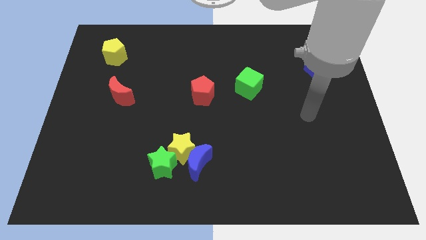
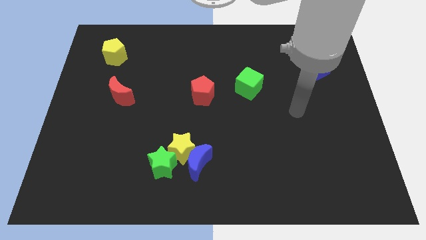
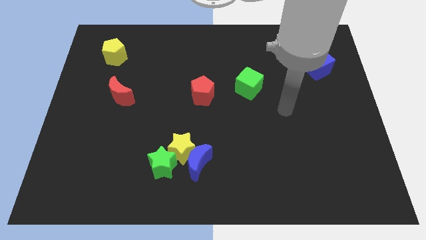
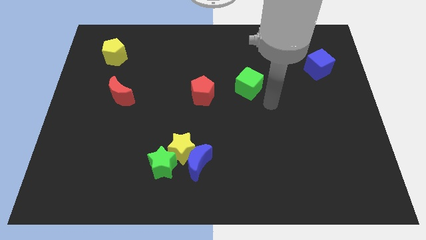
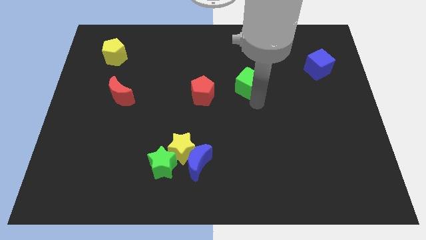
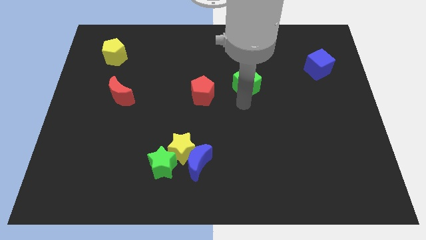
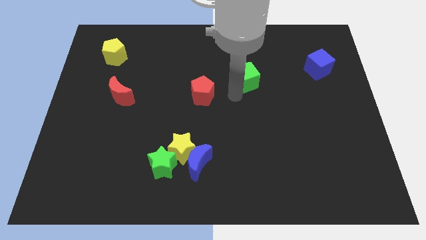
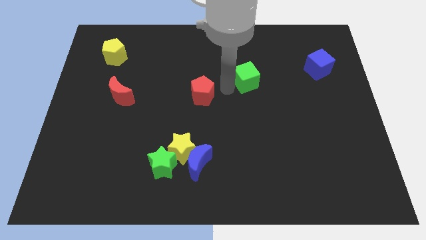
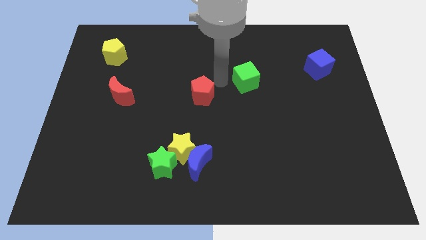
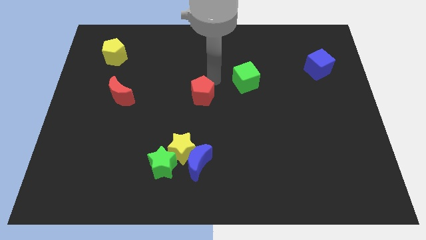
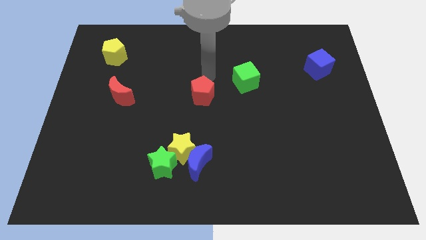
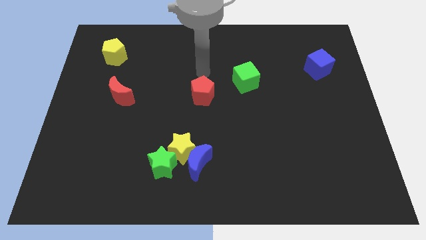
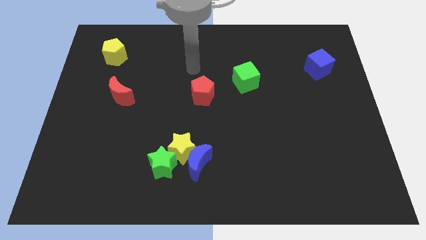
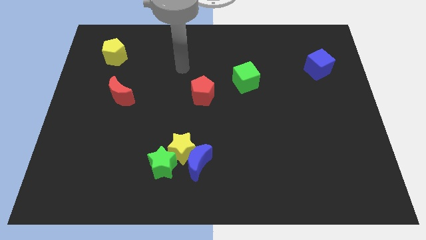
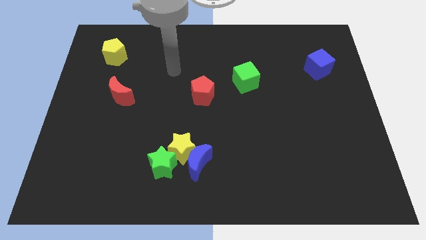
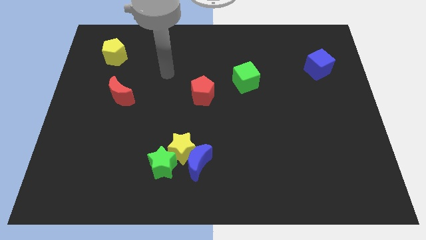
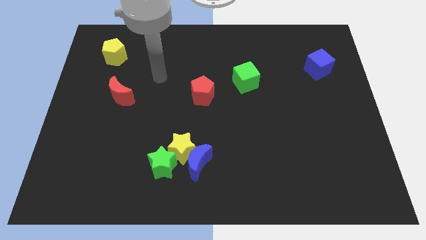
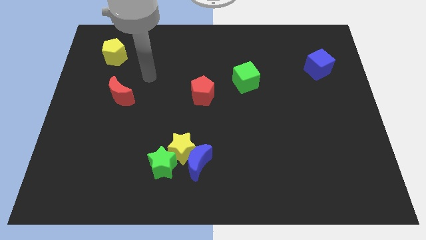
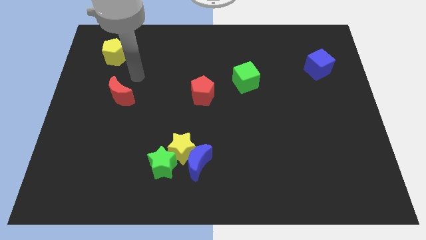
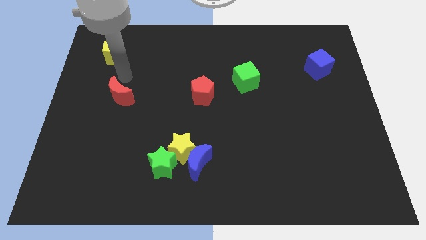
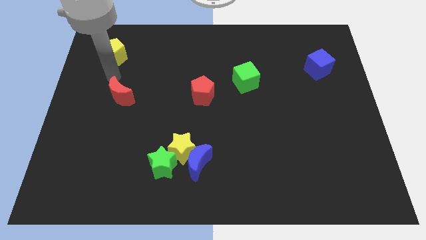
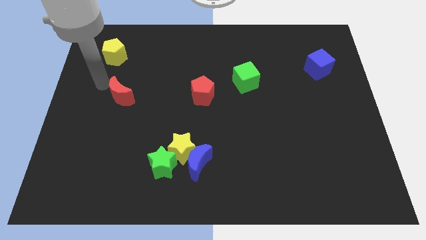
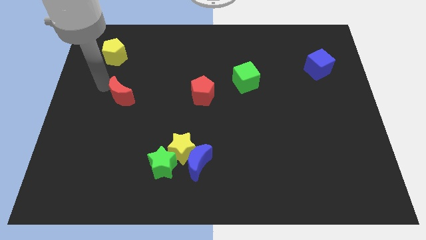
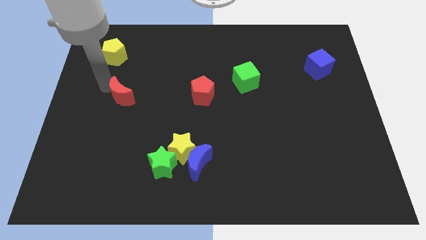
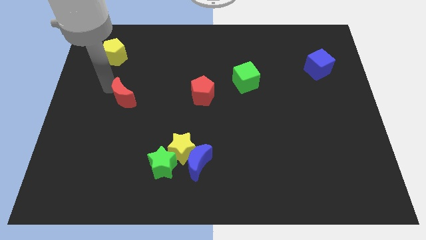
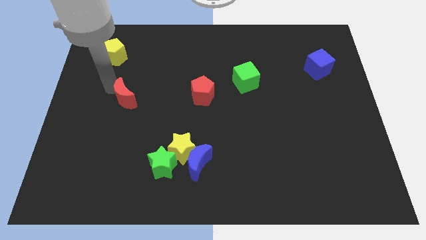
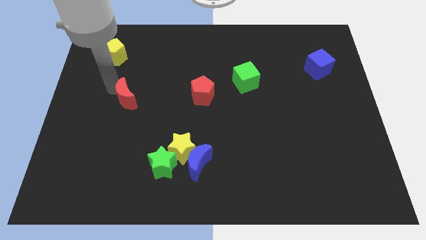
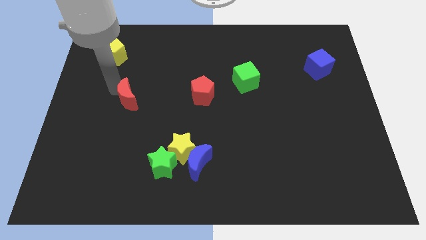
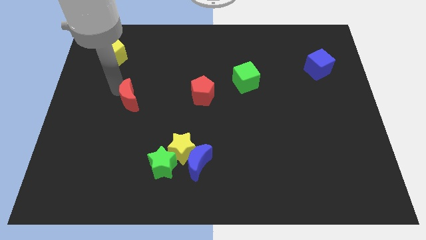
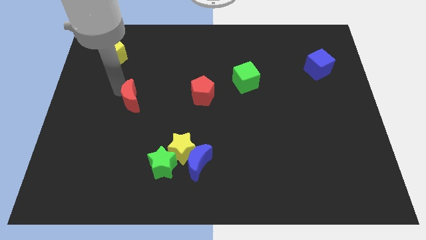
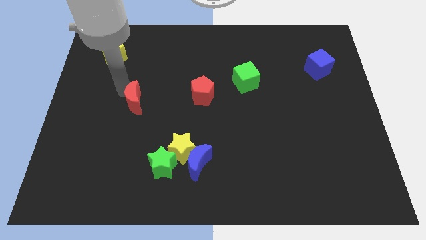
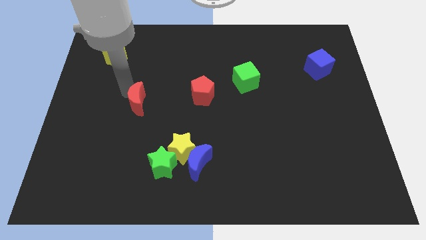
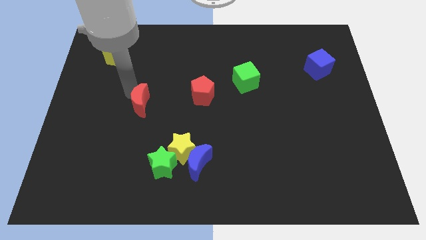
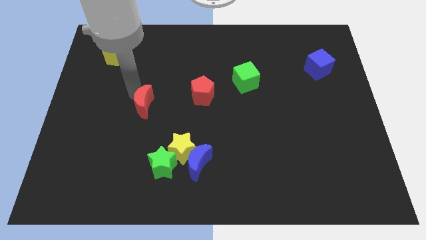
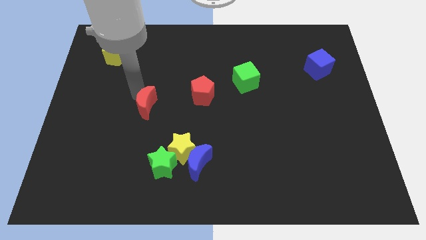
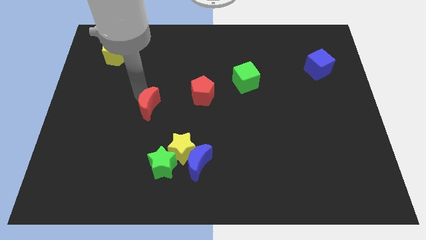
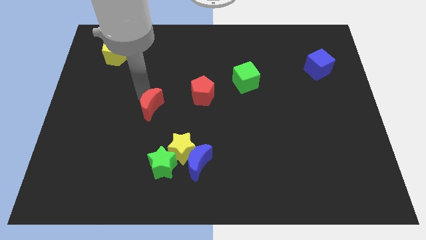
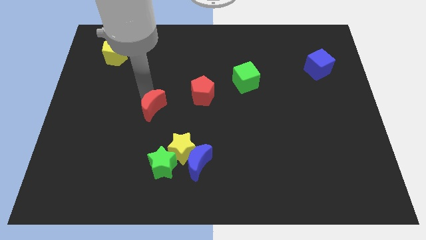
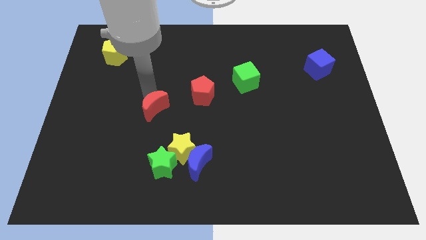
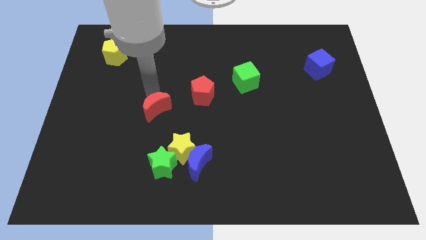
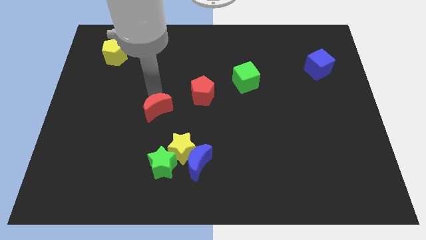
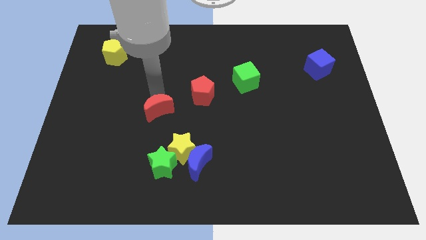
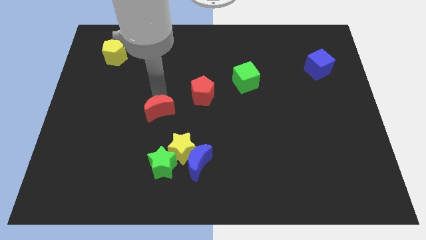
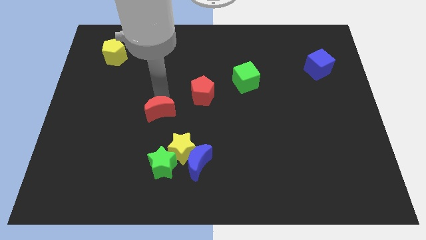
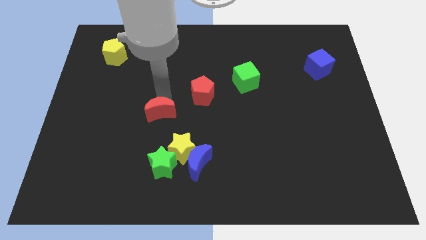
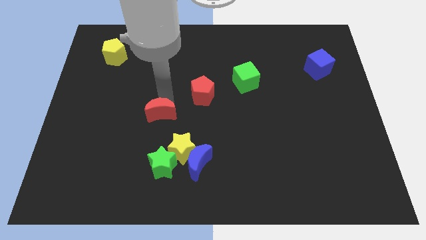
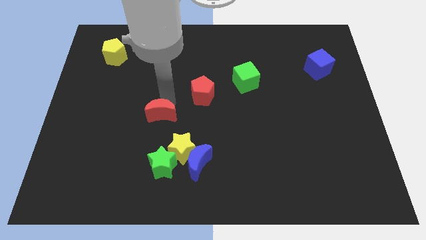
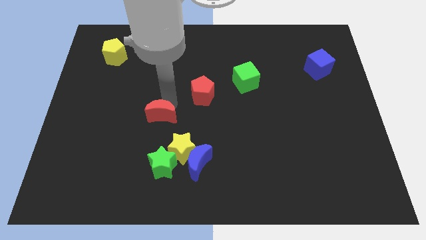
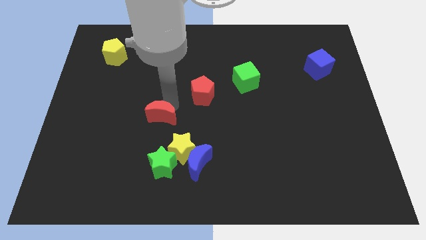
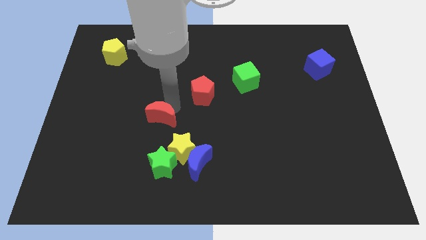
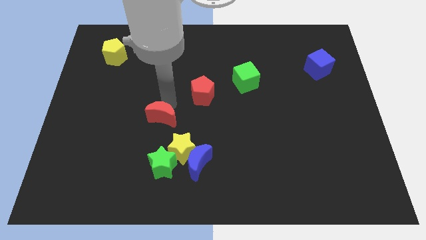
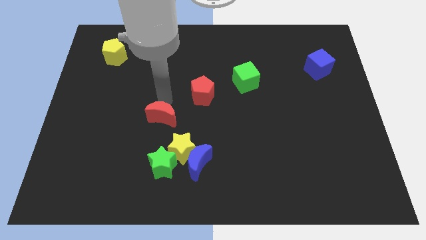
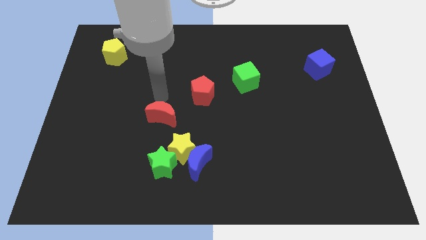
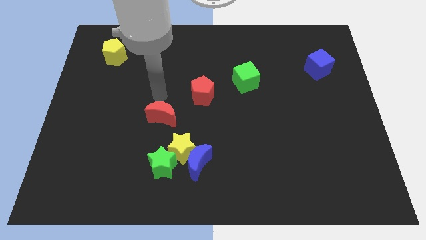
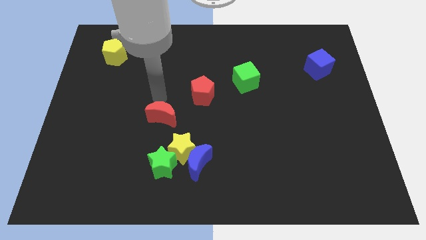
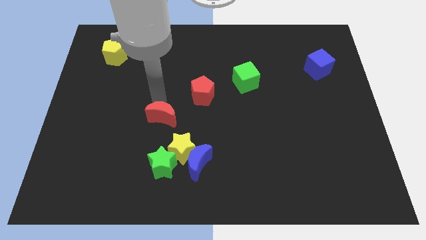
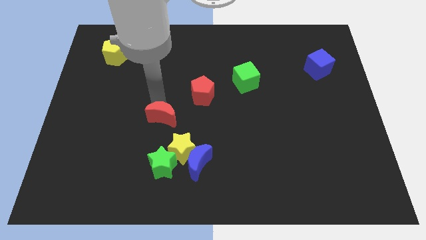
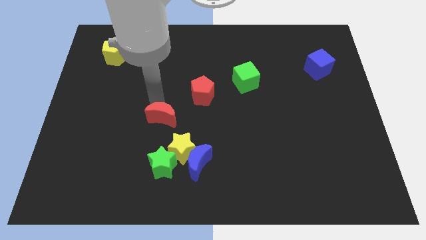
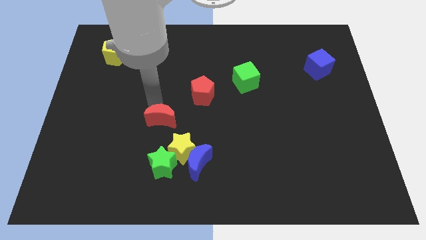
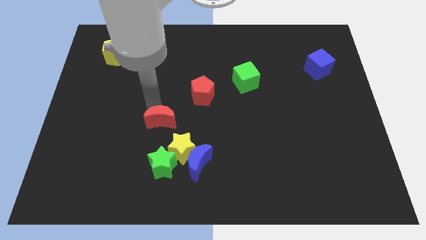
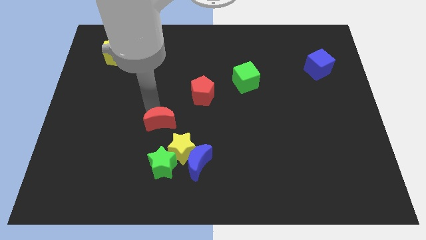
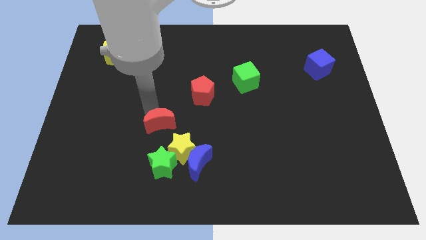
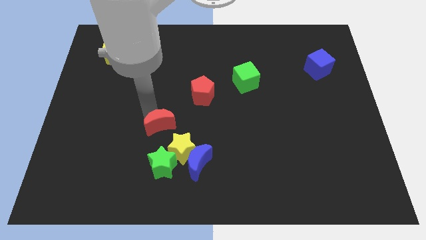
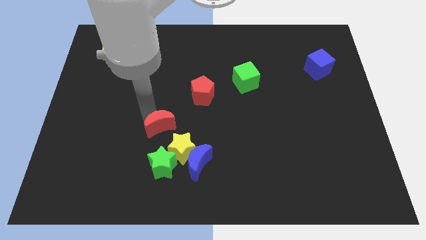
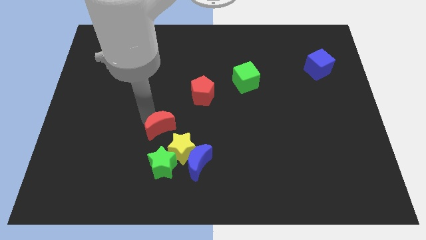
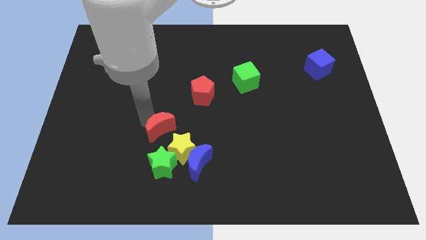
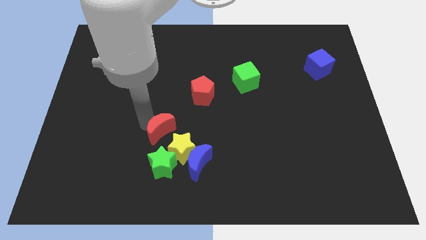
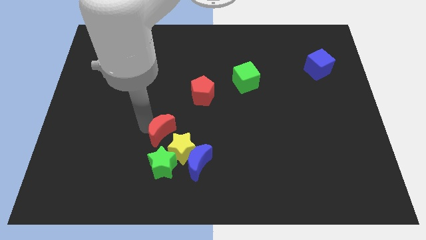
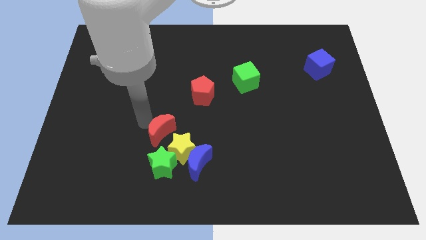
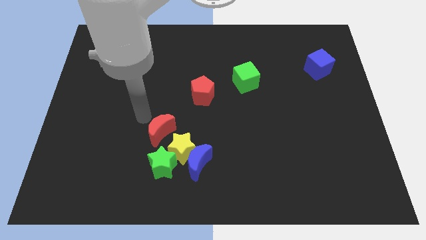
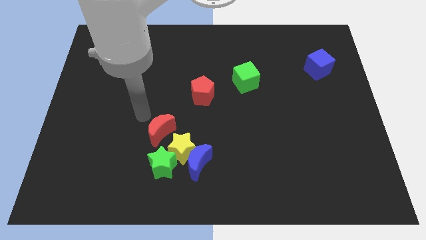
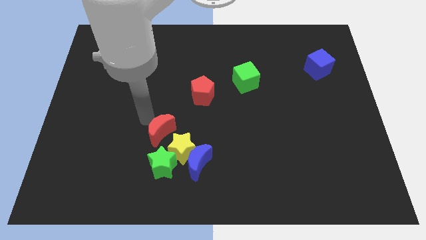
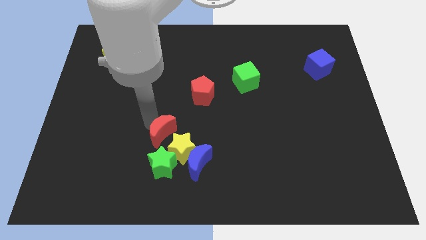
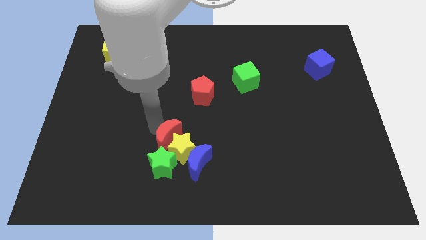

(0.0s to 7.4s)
put the red moon close to the yellow star
